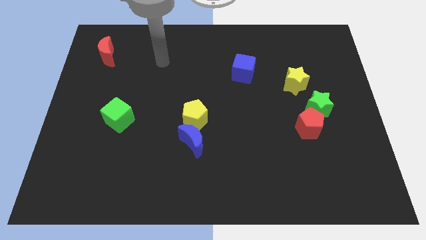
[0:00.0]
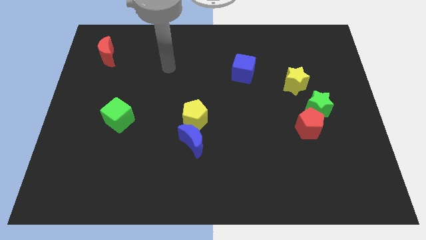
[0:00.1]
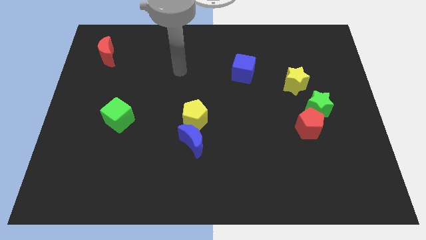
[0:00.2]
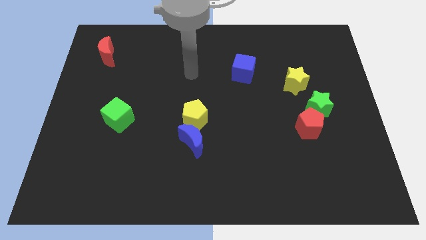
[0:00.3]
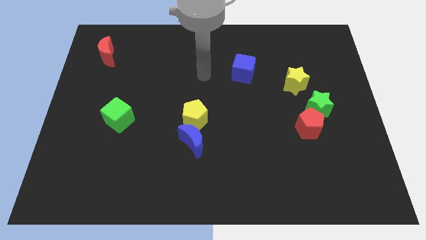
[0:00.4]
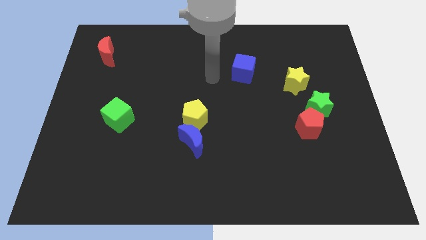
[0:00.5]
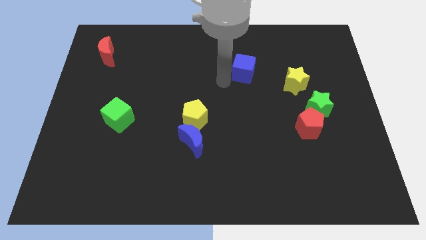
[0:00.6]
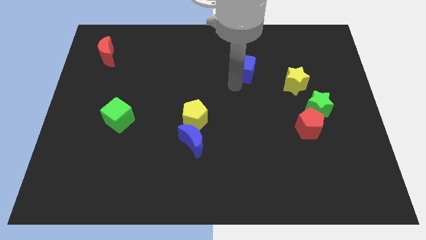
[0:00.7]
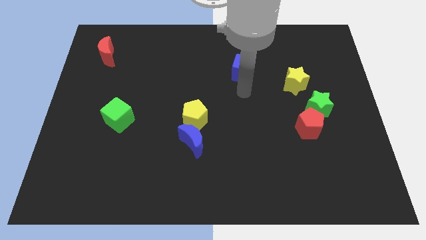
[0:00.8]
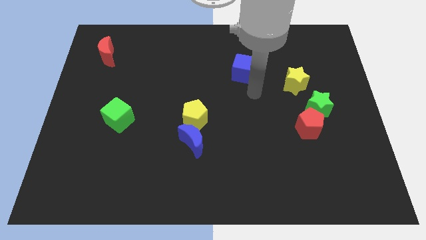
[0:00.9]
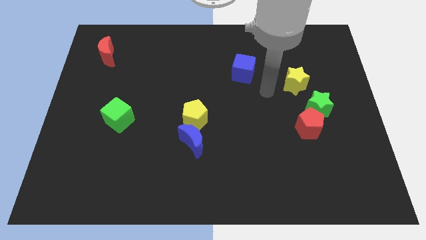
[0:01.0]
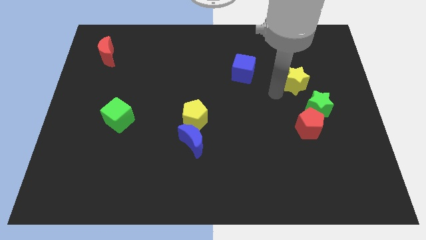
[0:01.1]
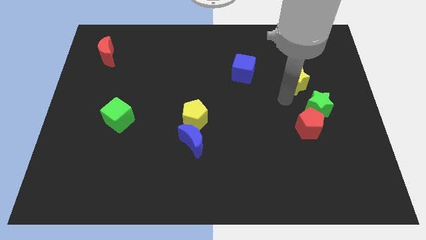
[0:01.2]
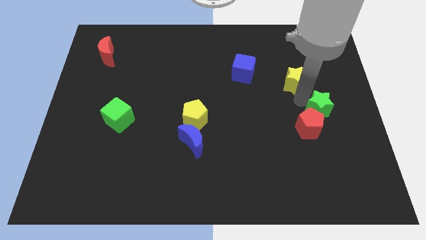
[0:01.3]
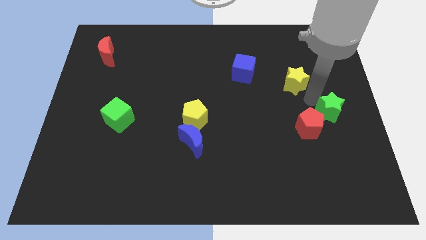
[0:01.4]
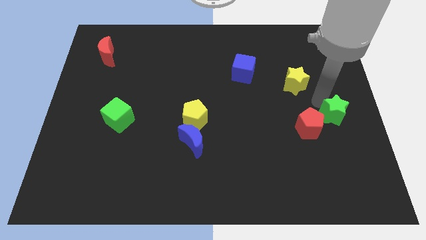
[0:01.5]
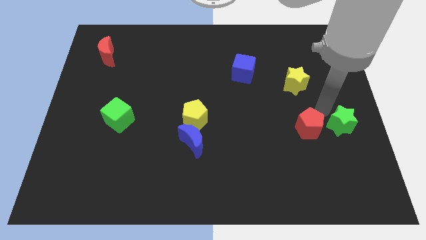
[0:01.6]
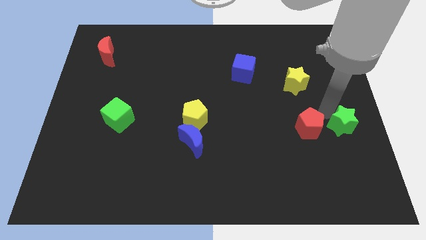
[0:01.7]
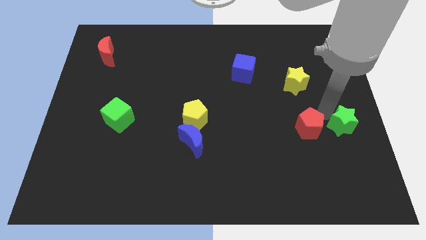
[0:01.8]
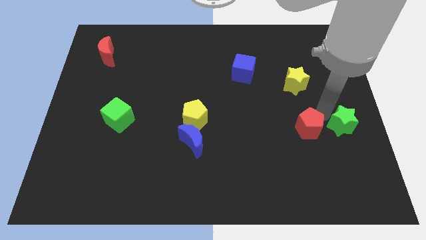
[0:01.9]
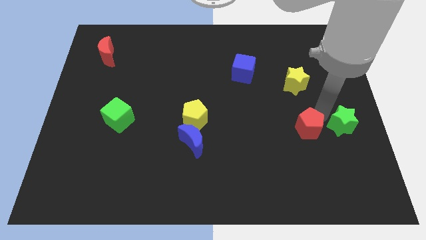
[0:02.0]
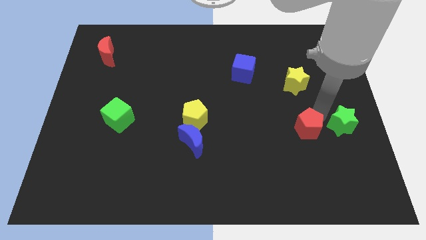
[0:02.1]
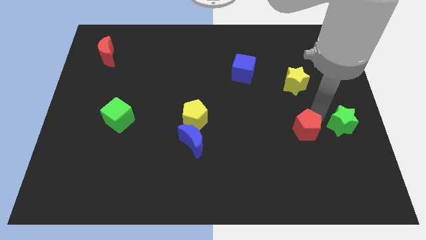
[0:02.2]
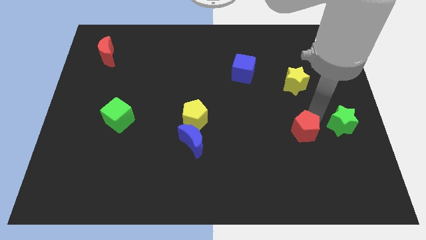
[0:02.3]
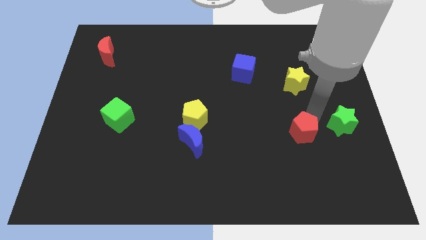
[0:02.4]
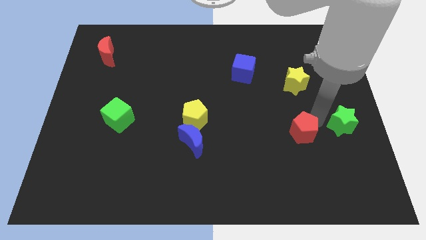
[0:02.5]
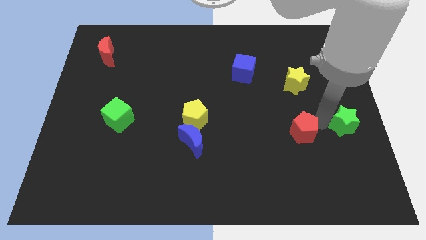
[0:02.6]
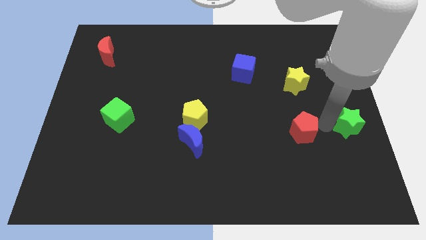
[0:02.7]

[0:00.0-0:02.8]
pull the red pentagon apart from the green star

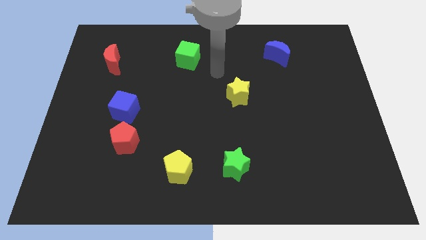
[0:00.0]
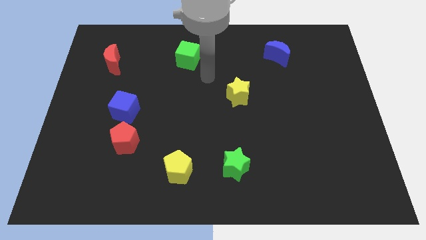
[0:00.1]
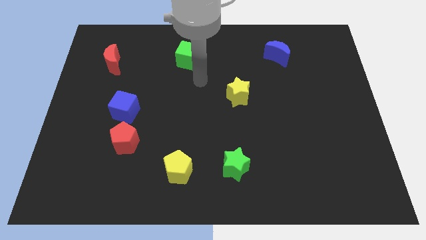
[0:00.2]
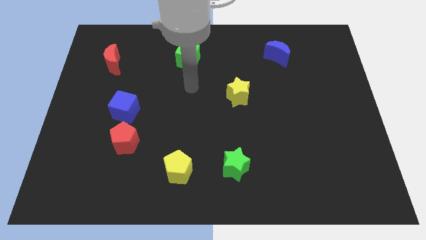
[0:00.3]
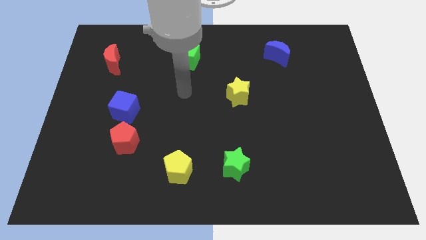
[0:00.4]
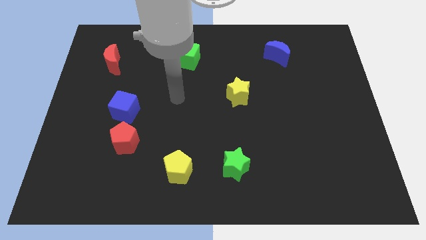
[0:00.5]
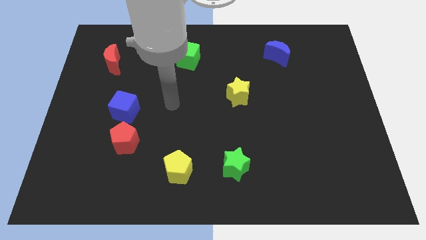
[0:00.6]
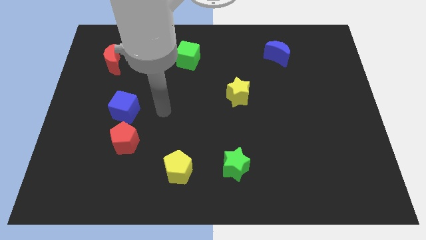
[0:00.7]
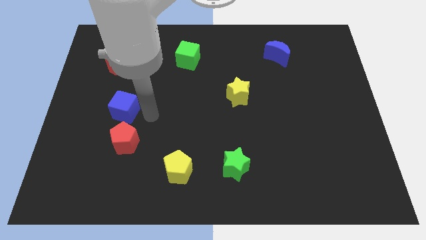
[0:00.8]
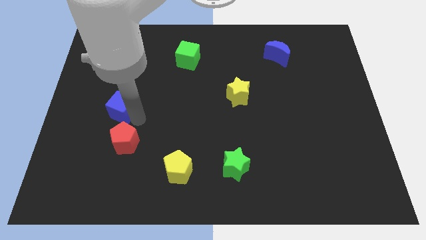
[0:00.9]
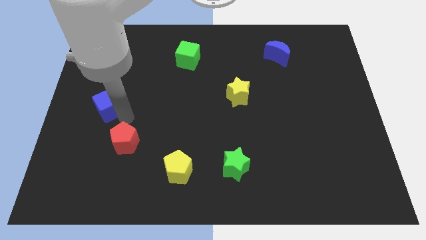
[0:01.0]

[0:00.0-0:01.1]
move the red pentagon away from the blue cube

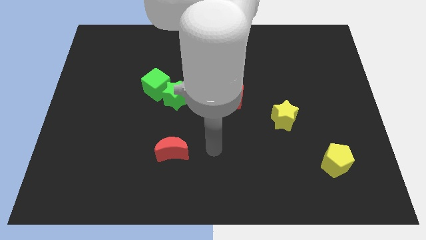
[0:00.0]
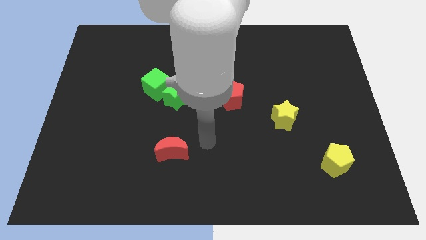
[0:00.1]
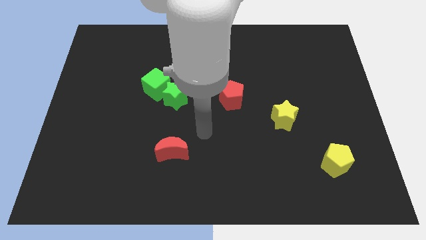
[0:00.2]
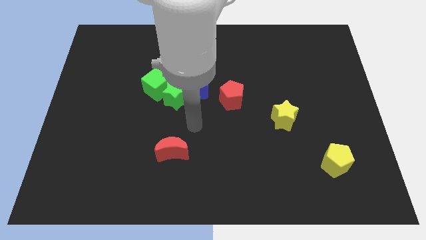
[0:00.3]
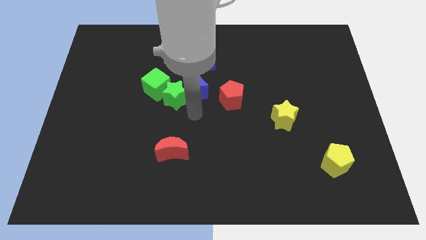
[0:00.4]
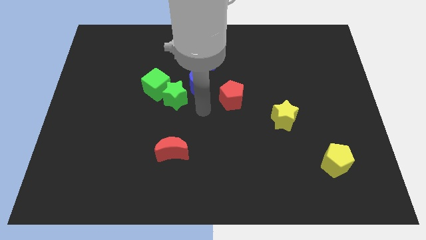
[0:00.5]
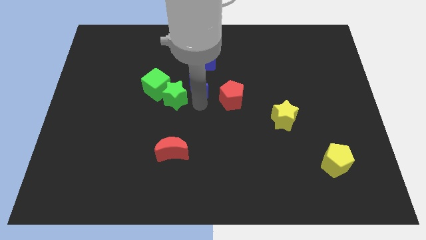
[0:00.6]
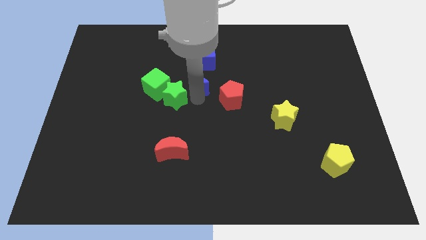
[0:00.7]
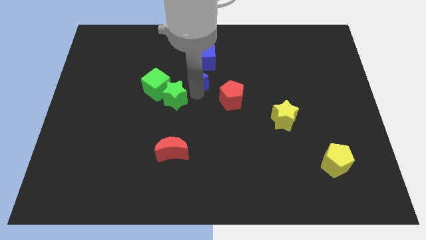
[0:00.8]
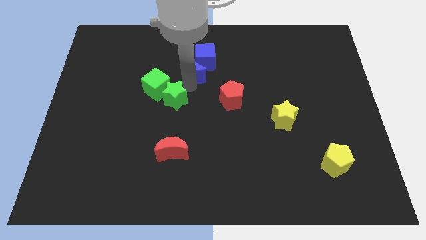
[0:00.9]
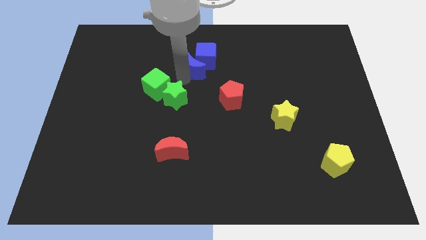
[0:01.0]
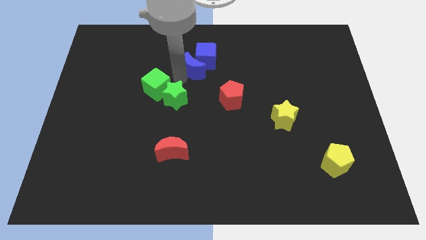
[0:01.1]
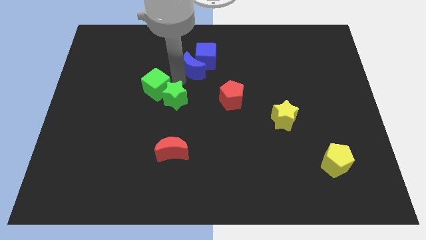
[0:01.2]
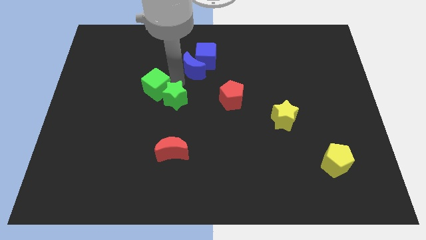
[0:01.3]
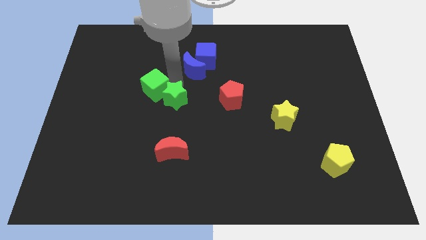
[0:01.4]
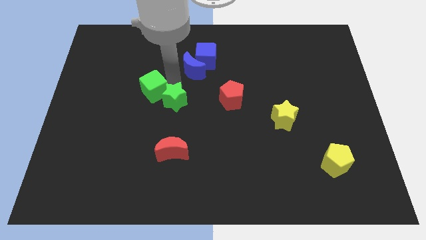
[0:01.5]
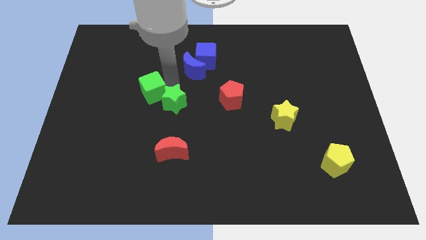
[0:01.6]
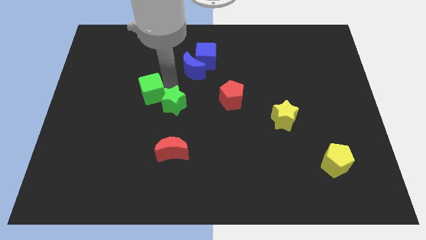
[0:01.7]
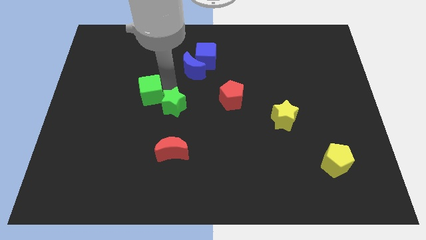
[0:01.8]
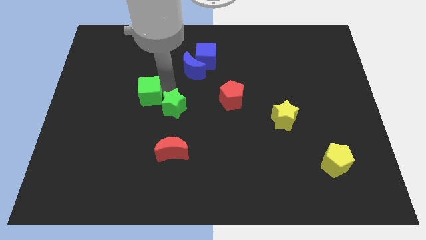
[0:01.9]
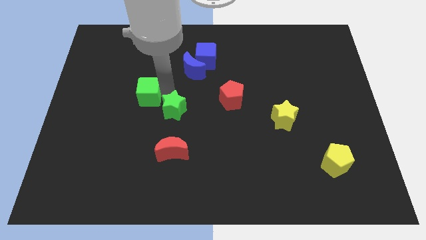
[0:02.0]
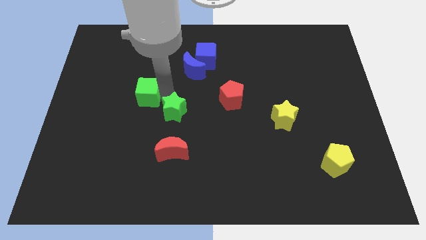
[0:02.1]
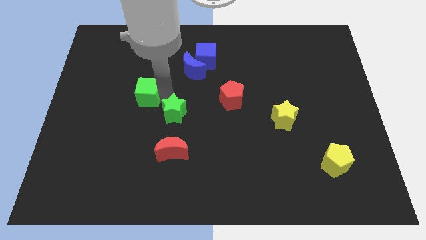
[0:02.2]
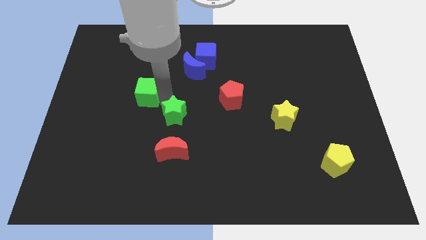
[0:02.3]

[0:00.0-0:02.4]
separate the green star from the green cube and blue moon

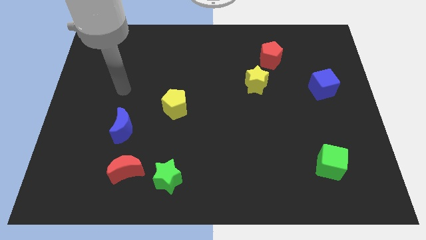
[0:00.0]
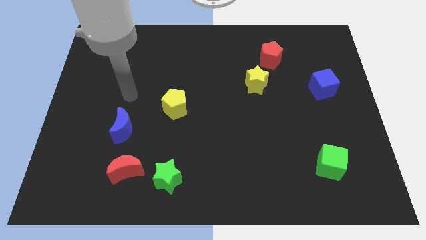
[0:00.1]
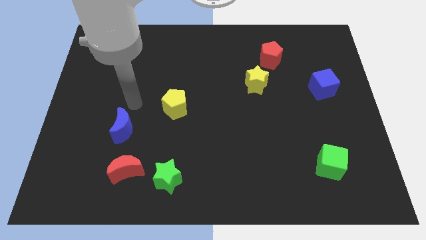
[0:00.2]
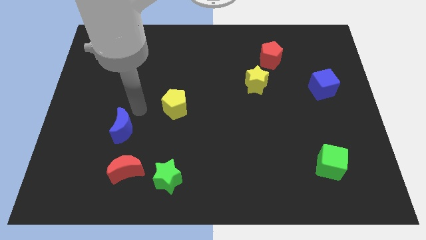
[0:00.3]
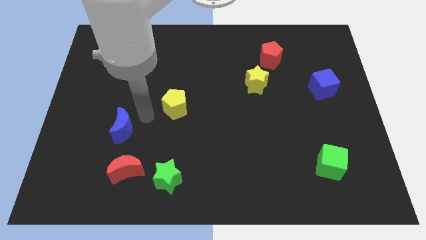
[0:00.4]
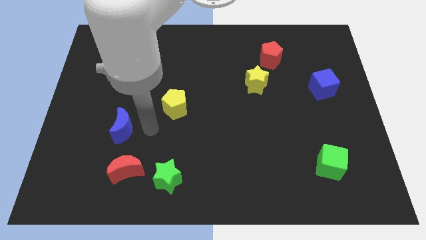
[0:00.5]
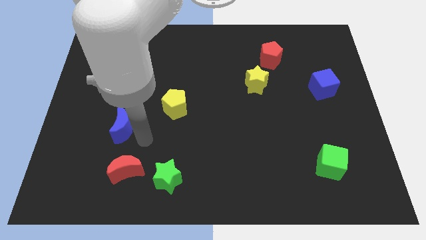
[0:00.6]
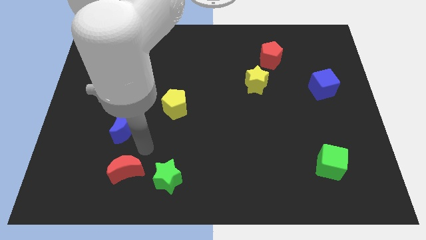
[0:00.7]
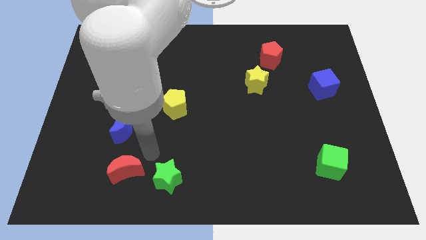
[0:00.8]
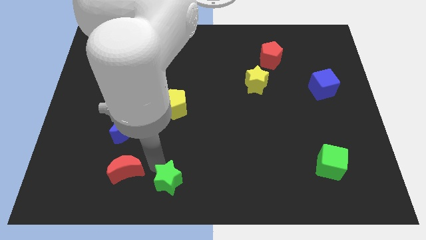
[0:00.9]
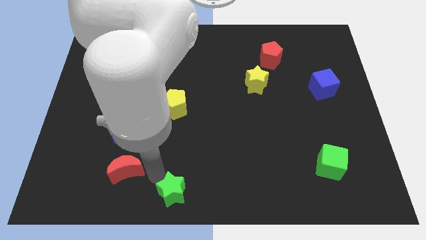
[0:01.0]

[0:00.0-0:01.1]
separate the red moon from the green star

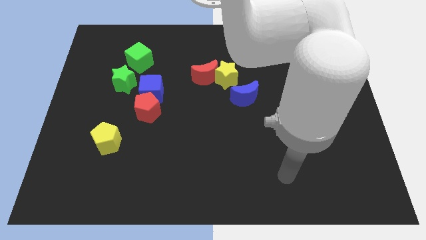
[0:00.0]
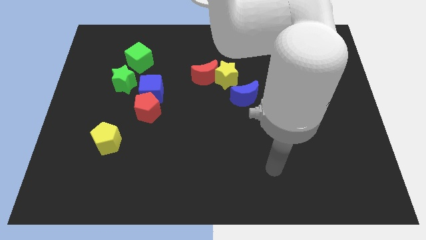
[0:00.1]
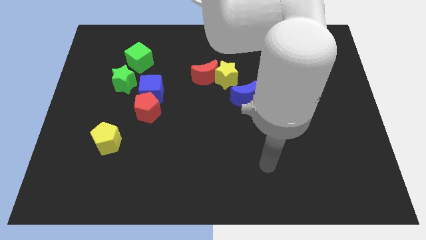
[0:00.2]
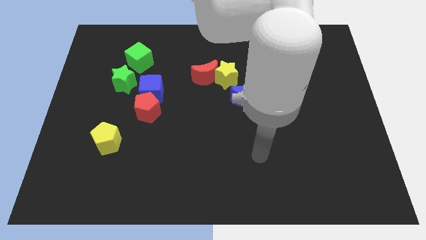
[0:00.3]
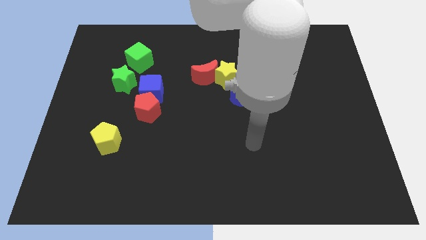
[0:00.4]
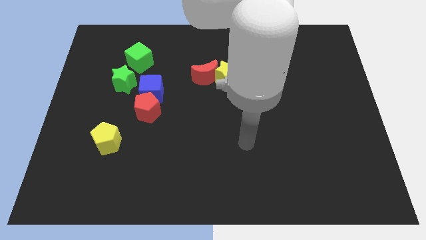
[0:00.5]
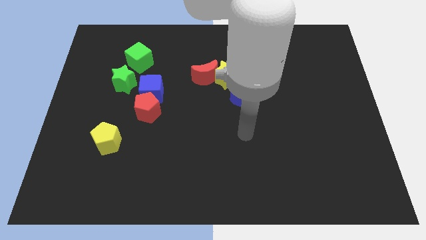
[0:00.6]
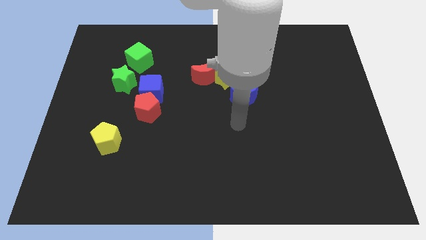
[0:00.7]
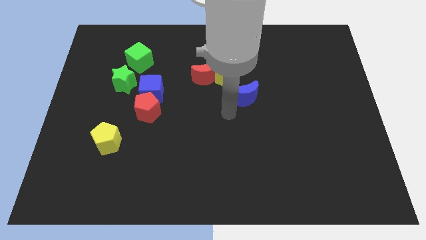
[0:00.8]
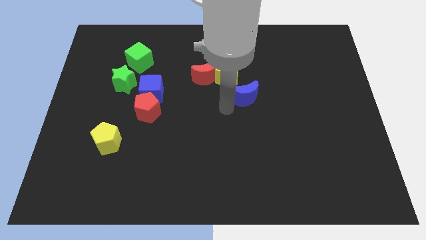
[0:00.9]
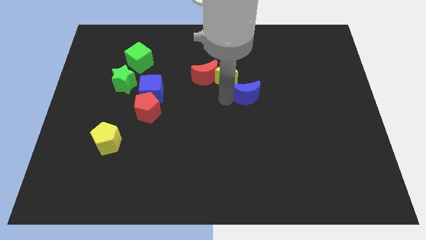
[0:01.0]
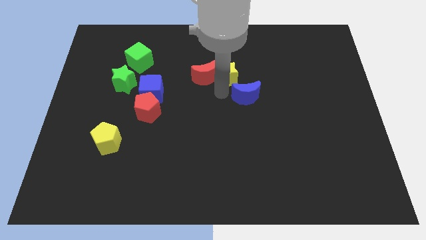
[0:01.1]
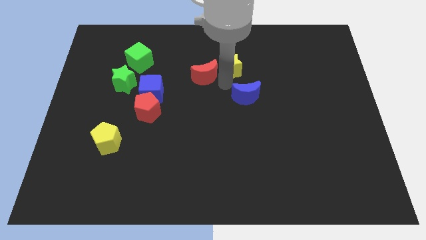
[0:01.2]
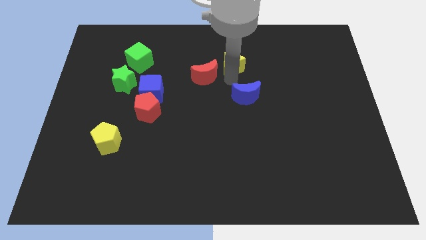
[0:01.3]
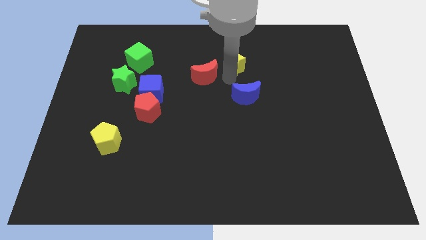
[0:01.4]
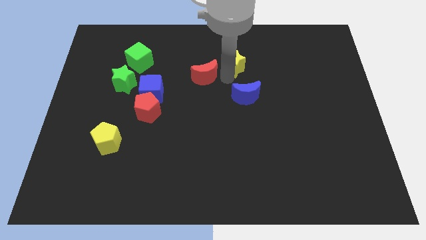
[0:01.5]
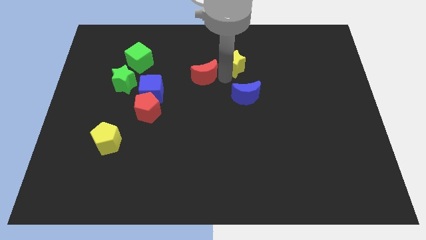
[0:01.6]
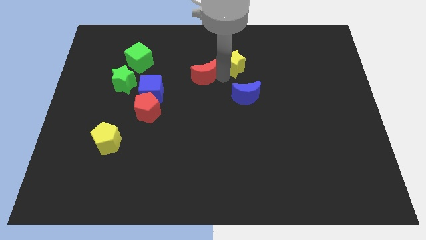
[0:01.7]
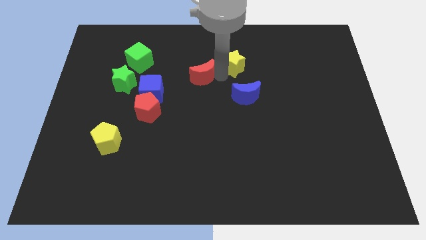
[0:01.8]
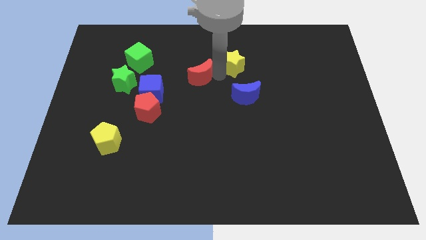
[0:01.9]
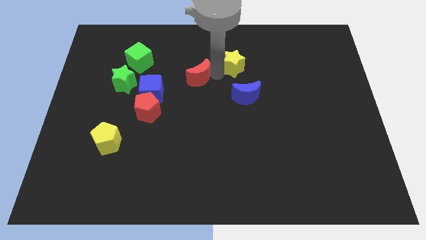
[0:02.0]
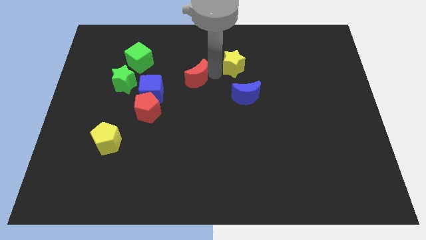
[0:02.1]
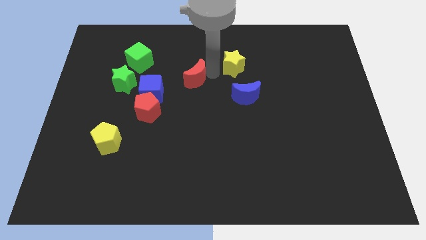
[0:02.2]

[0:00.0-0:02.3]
pull the red moon apart from the yellow star
